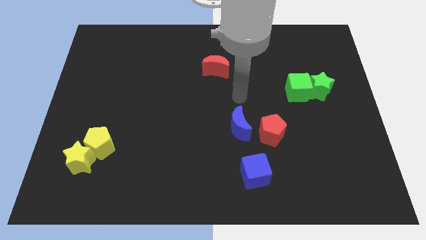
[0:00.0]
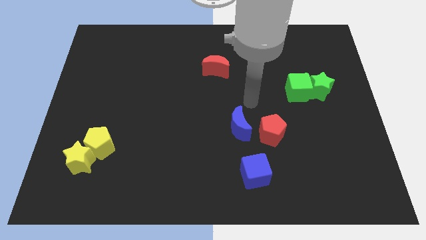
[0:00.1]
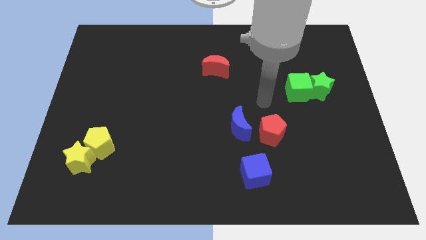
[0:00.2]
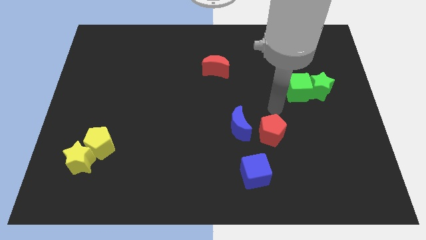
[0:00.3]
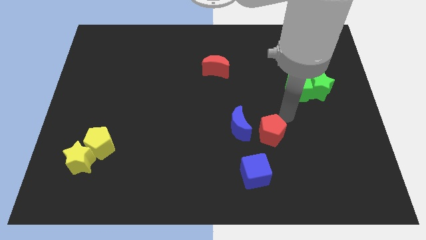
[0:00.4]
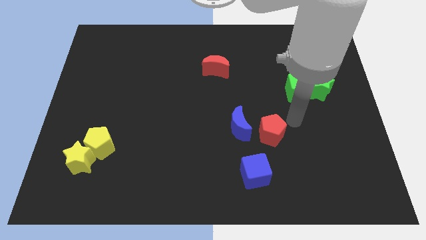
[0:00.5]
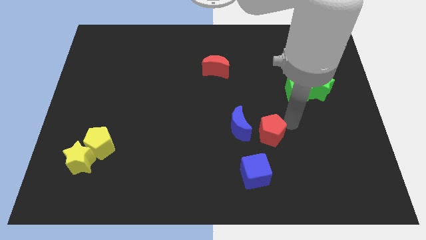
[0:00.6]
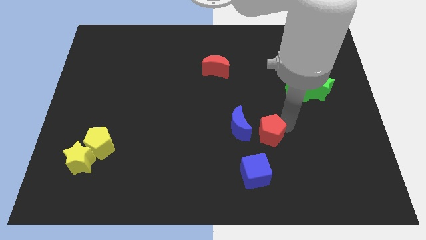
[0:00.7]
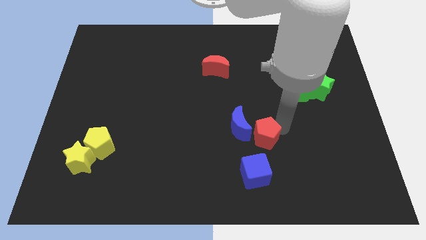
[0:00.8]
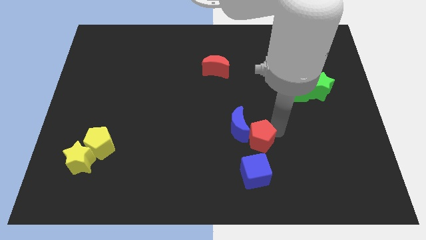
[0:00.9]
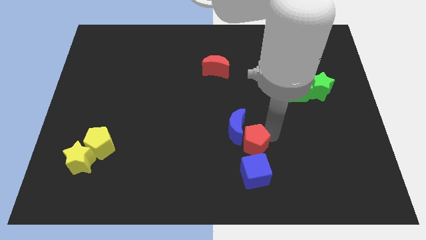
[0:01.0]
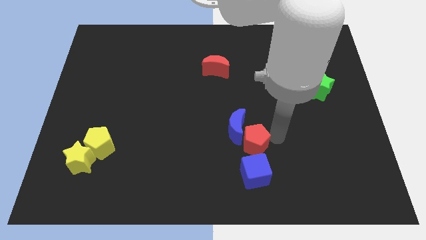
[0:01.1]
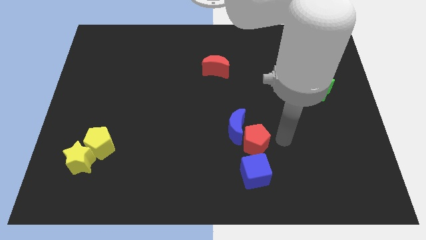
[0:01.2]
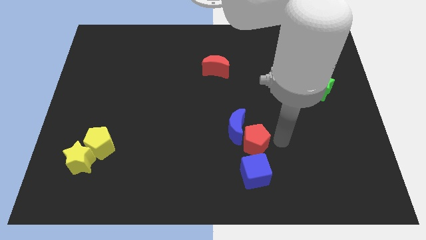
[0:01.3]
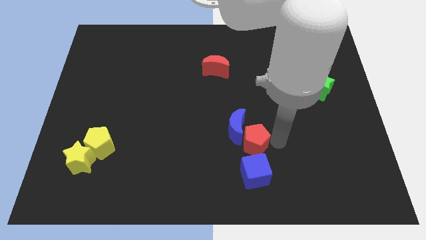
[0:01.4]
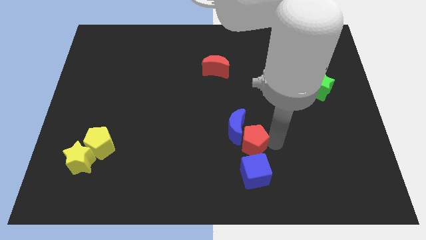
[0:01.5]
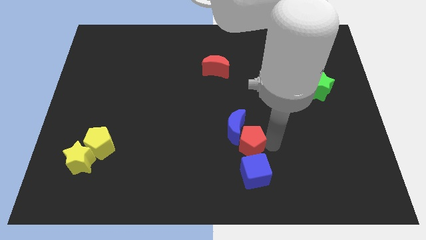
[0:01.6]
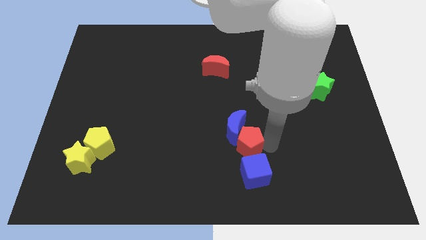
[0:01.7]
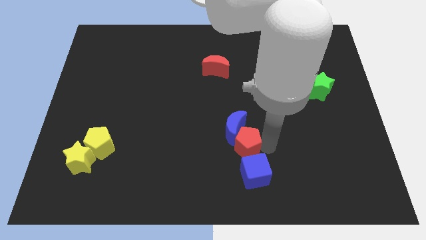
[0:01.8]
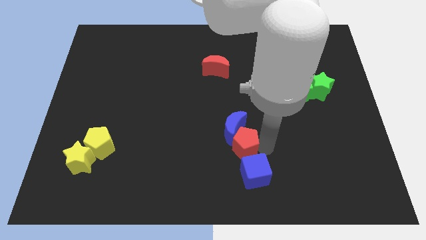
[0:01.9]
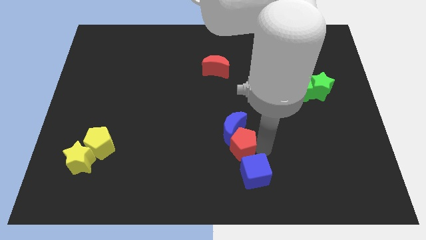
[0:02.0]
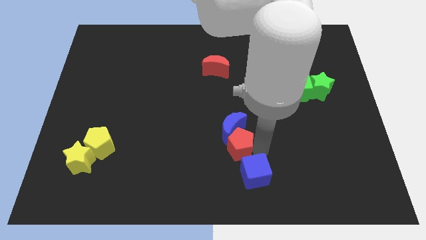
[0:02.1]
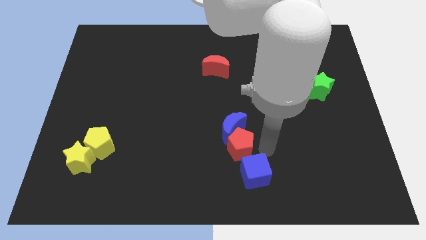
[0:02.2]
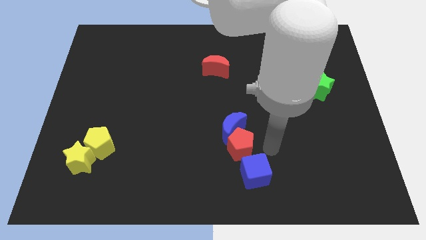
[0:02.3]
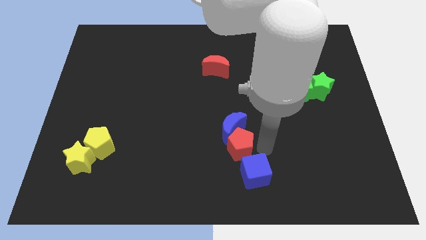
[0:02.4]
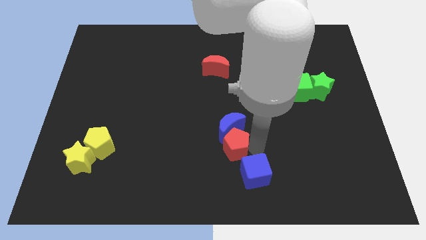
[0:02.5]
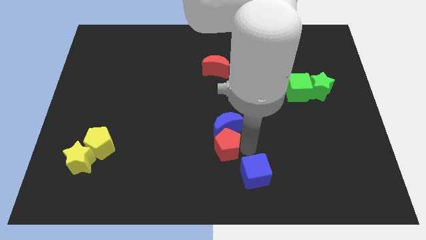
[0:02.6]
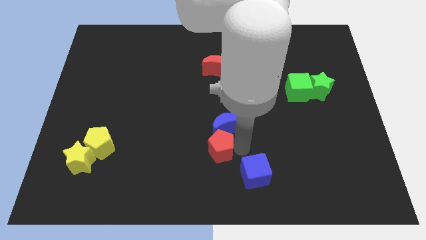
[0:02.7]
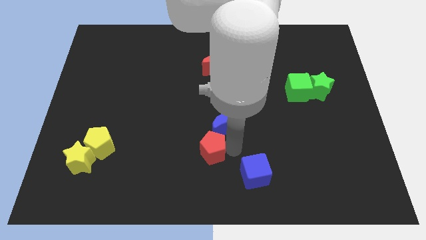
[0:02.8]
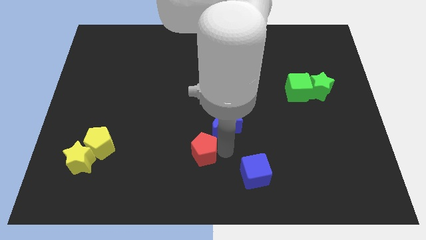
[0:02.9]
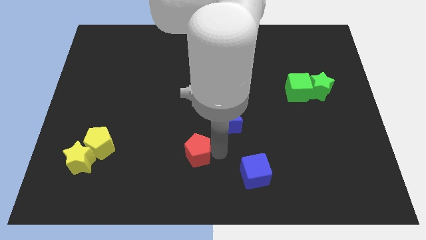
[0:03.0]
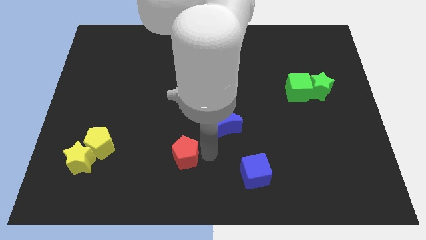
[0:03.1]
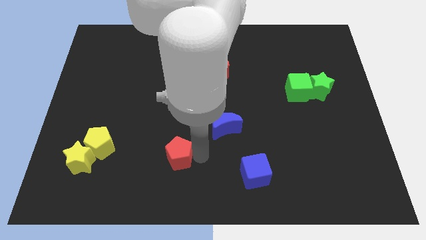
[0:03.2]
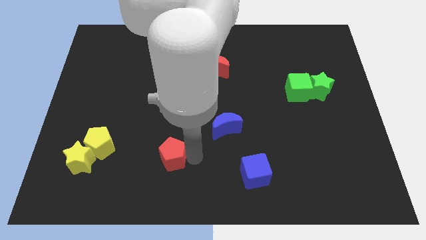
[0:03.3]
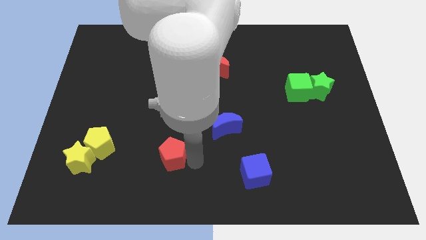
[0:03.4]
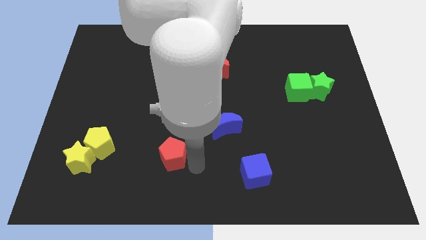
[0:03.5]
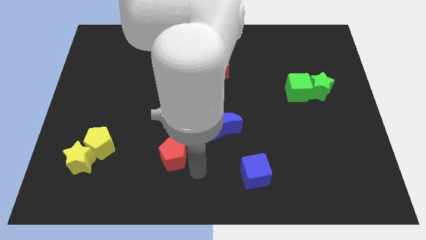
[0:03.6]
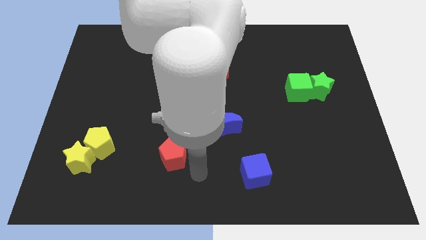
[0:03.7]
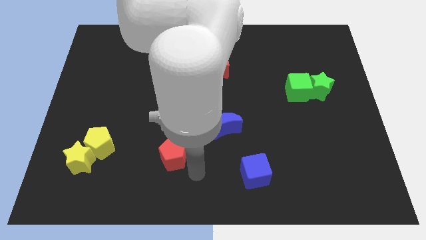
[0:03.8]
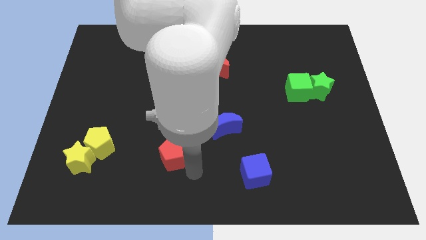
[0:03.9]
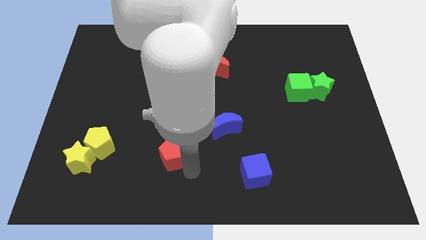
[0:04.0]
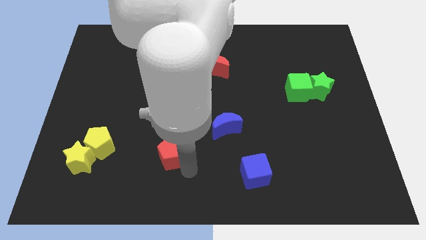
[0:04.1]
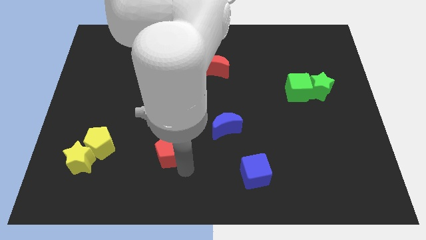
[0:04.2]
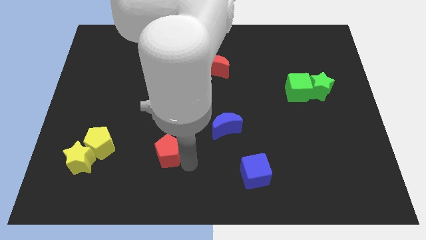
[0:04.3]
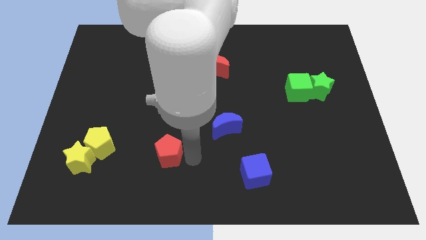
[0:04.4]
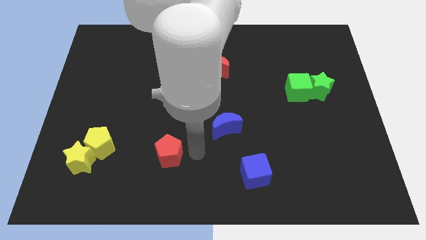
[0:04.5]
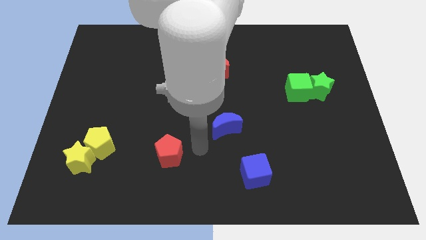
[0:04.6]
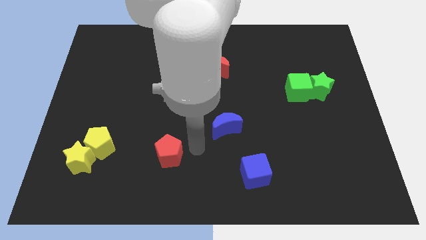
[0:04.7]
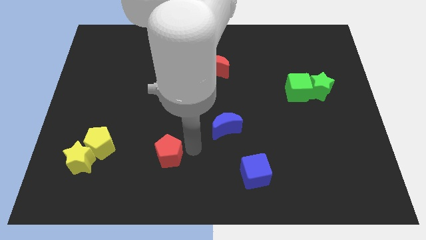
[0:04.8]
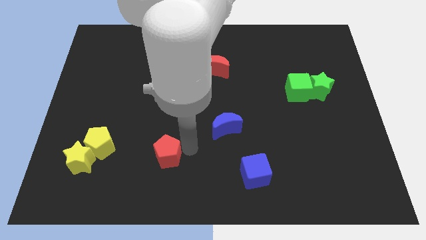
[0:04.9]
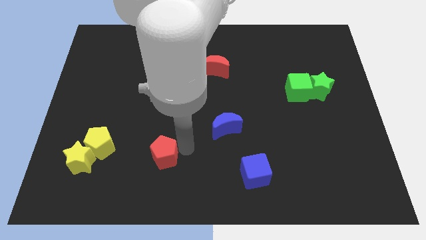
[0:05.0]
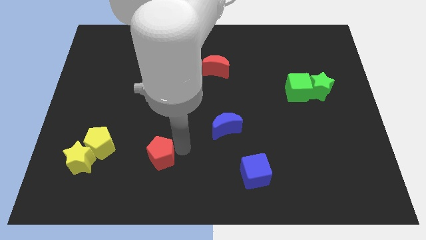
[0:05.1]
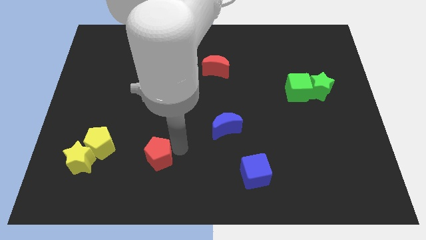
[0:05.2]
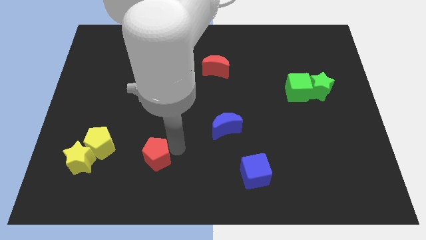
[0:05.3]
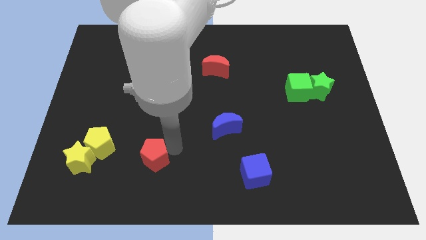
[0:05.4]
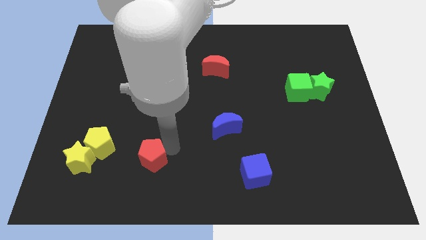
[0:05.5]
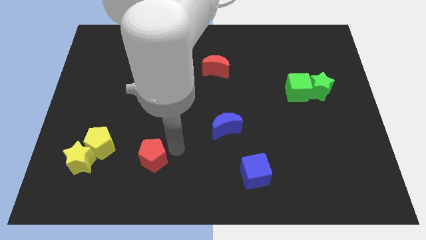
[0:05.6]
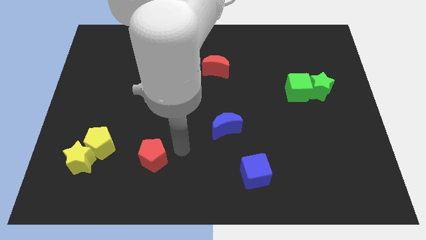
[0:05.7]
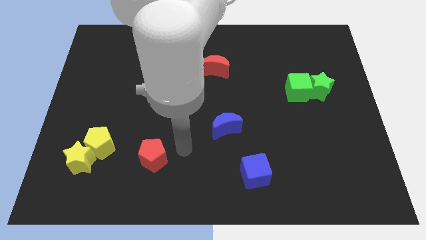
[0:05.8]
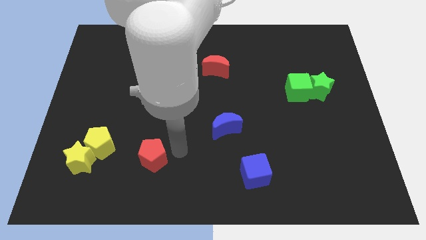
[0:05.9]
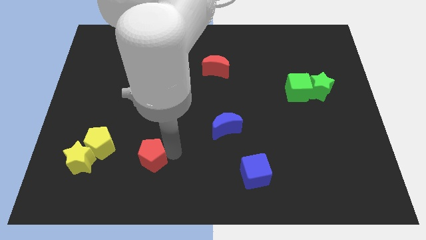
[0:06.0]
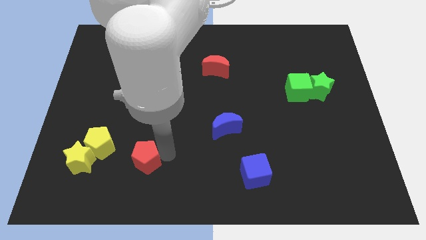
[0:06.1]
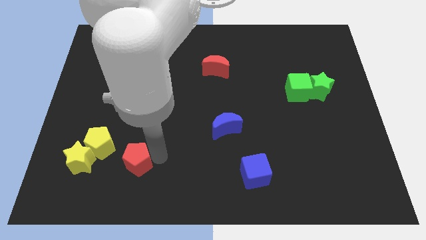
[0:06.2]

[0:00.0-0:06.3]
slide the red pentagon to the bottom right of the yellow pentagon
